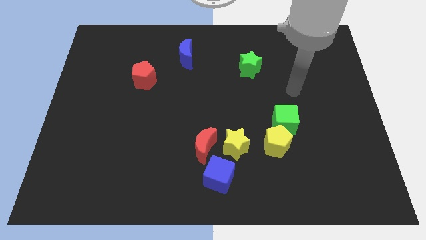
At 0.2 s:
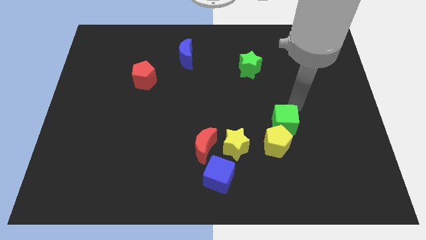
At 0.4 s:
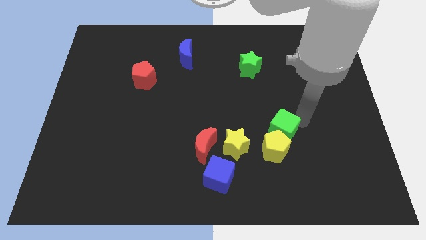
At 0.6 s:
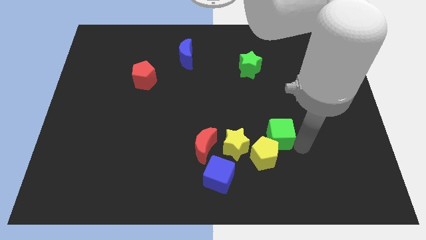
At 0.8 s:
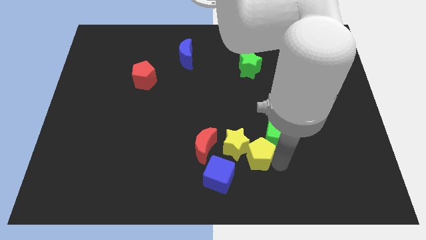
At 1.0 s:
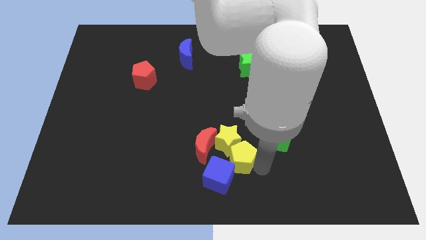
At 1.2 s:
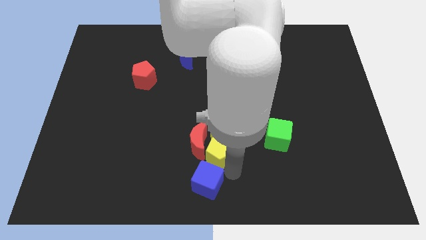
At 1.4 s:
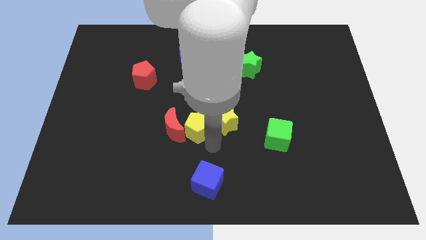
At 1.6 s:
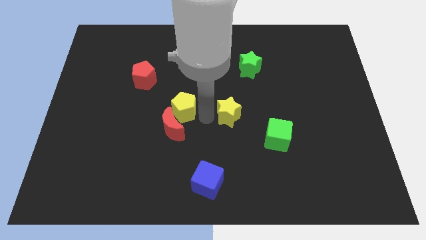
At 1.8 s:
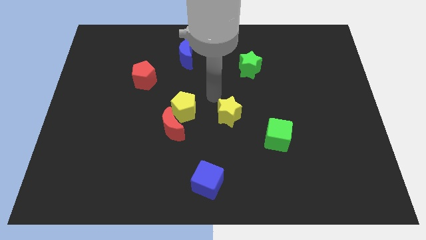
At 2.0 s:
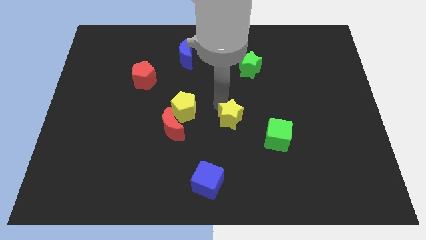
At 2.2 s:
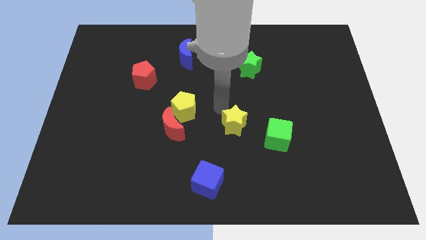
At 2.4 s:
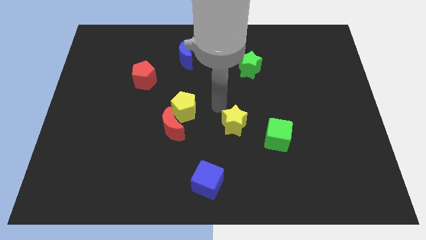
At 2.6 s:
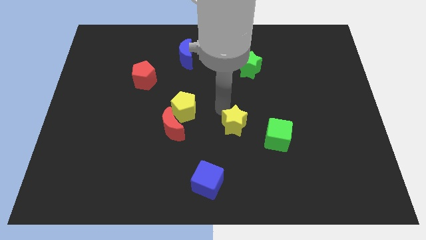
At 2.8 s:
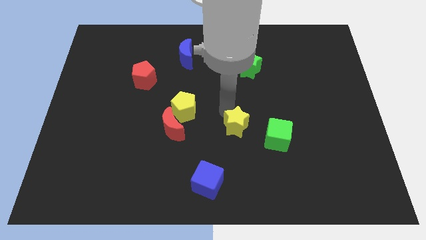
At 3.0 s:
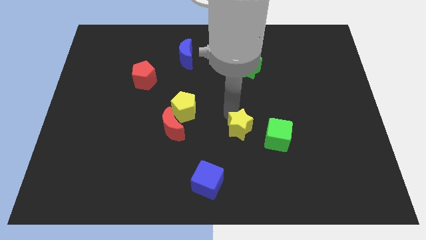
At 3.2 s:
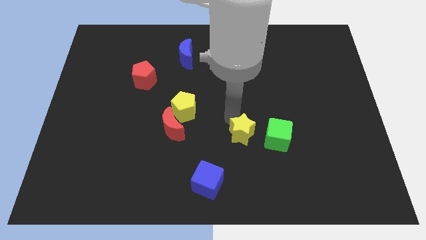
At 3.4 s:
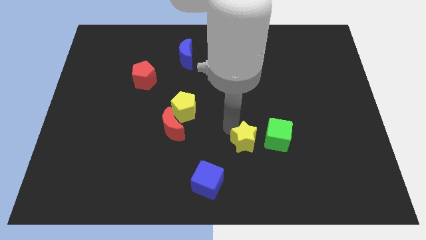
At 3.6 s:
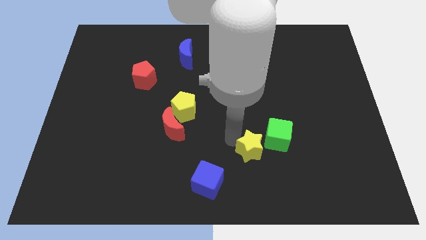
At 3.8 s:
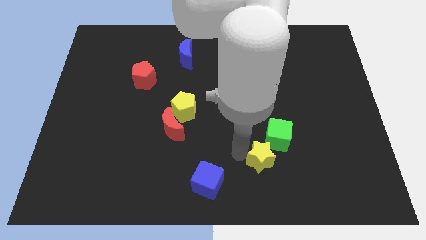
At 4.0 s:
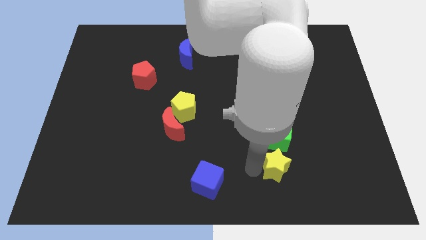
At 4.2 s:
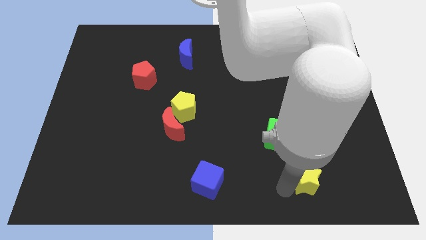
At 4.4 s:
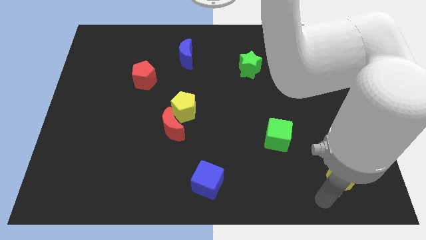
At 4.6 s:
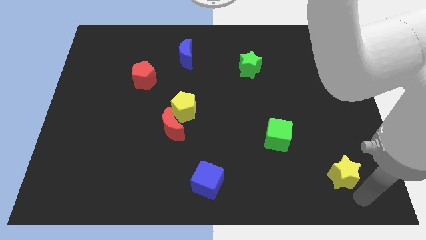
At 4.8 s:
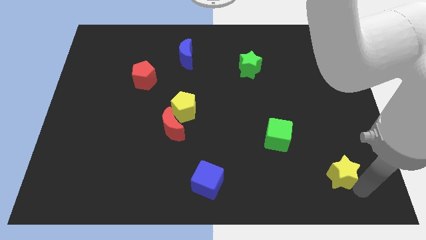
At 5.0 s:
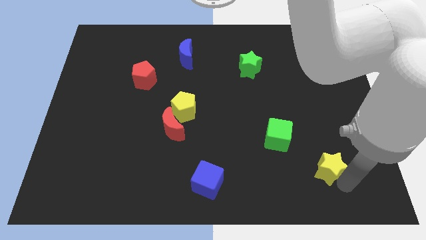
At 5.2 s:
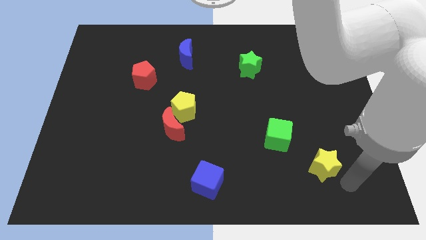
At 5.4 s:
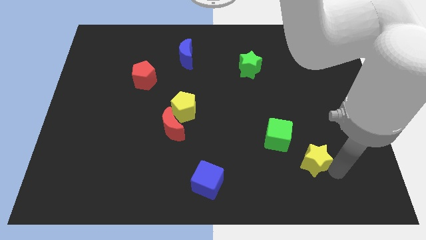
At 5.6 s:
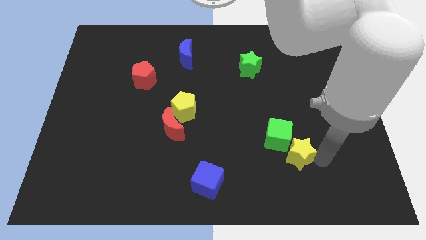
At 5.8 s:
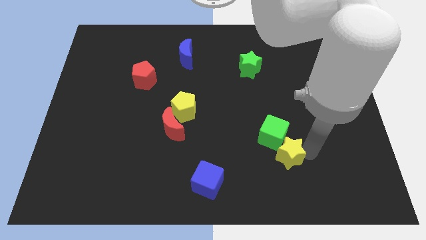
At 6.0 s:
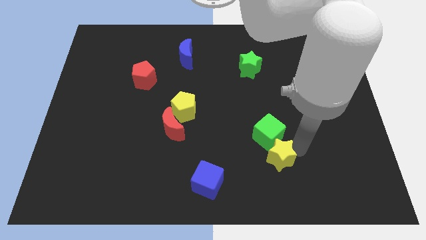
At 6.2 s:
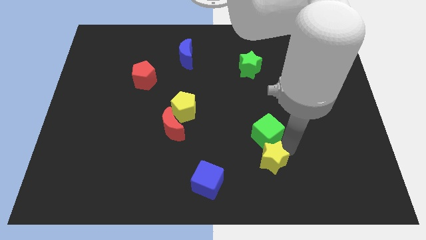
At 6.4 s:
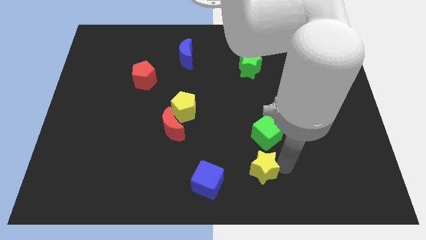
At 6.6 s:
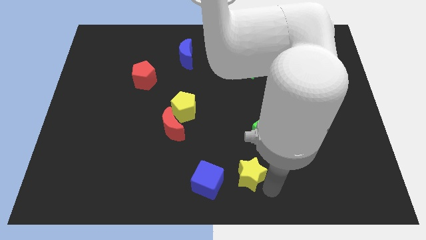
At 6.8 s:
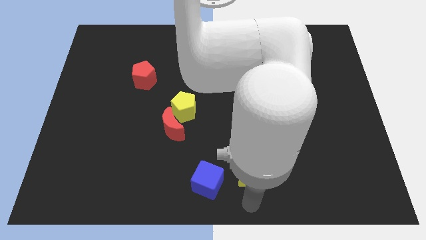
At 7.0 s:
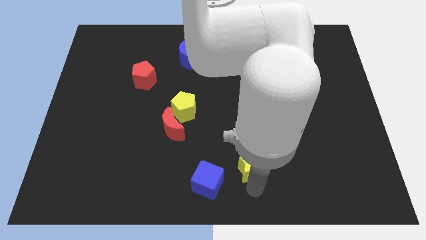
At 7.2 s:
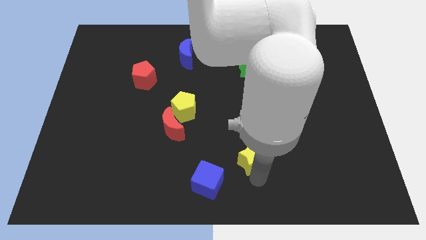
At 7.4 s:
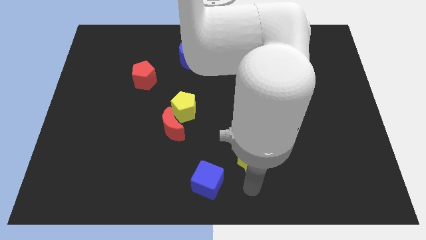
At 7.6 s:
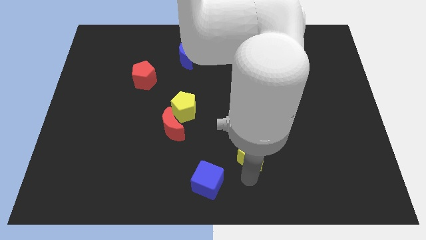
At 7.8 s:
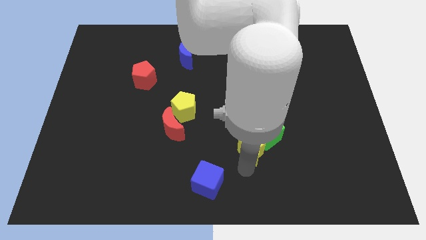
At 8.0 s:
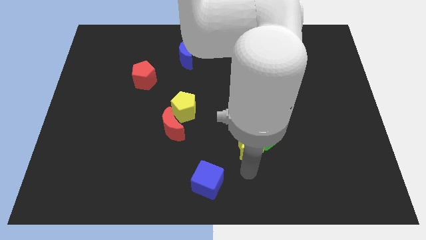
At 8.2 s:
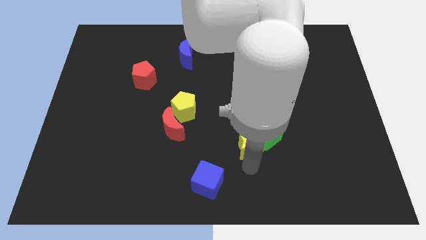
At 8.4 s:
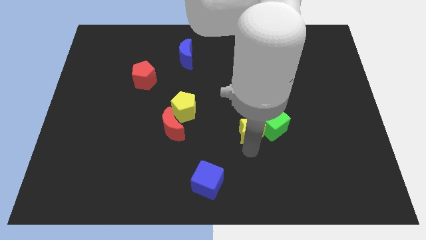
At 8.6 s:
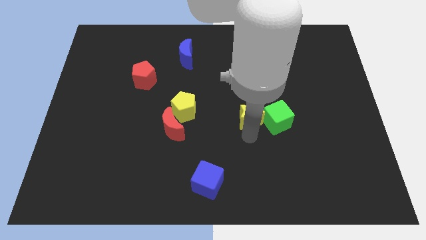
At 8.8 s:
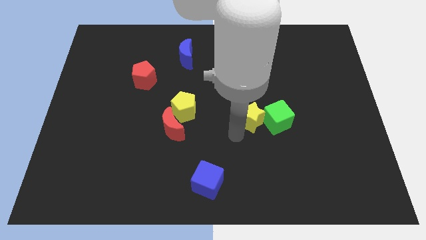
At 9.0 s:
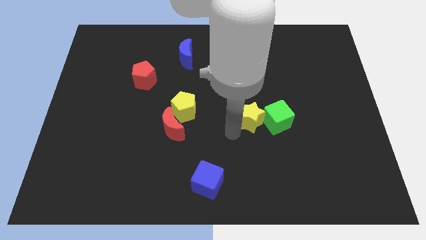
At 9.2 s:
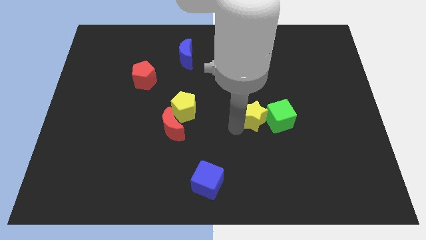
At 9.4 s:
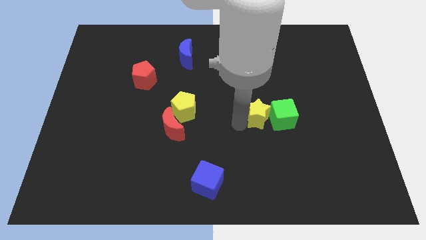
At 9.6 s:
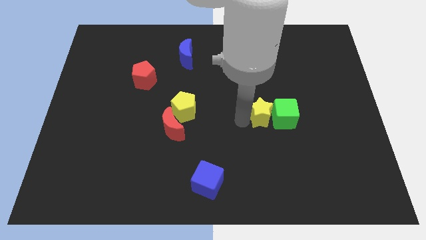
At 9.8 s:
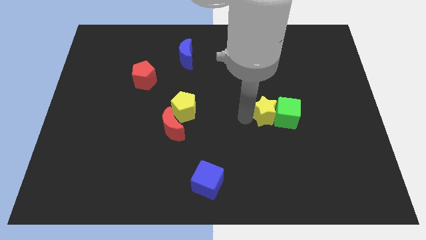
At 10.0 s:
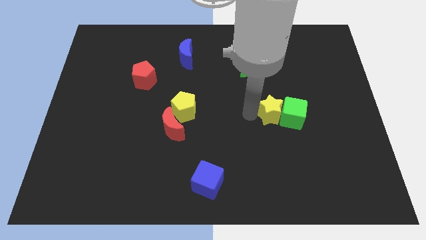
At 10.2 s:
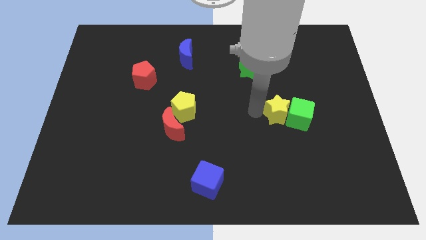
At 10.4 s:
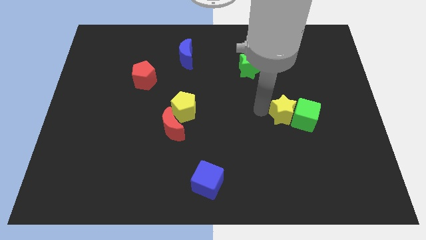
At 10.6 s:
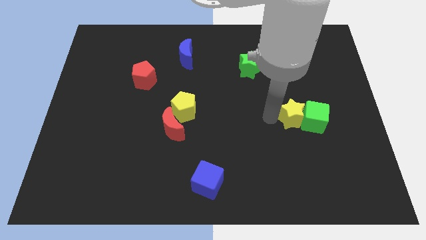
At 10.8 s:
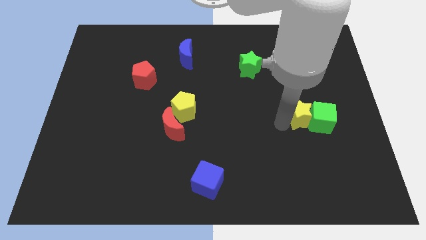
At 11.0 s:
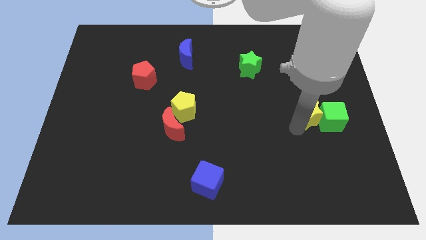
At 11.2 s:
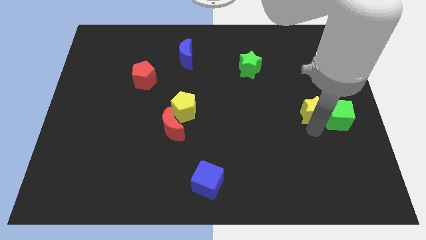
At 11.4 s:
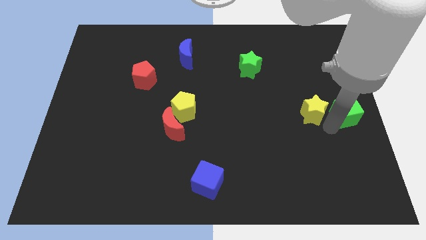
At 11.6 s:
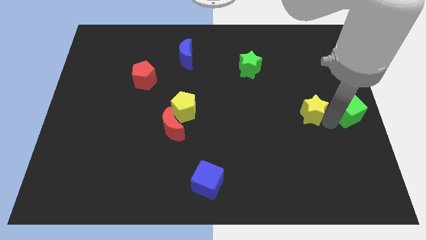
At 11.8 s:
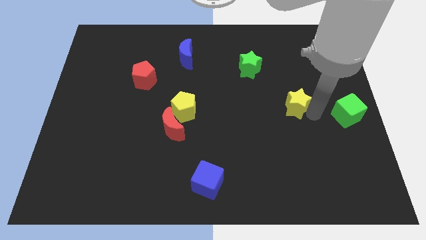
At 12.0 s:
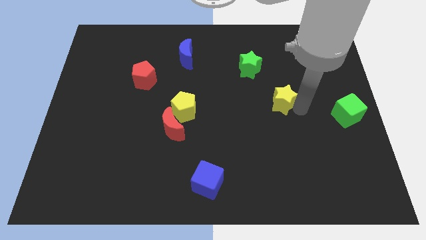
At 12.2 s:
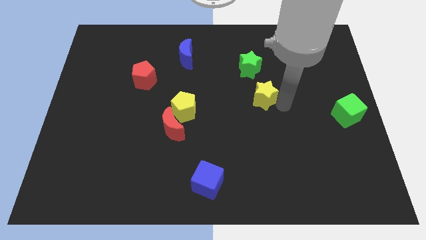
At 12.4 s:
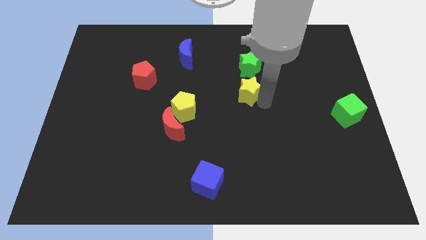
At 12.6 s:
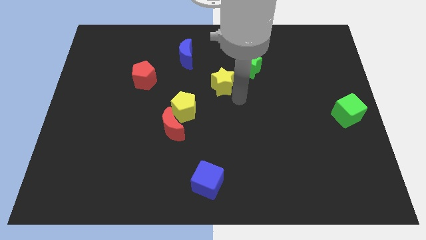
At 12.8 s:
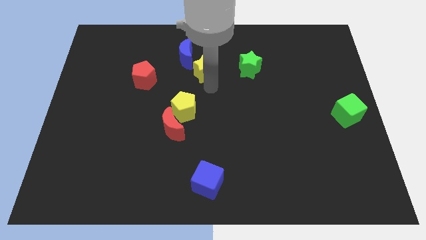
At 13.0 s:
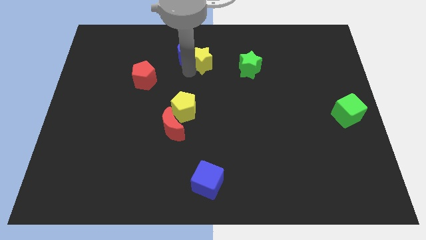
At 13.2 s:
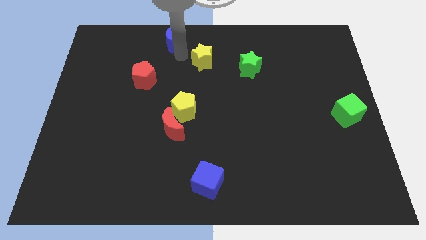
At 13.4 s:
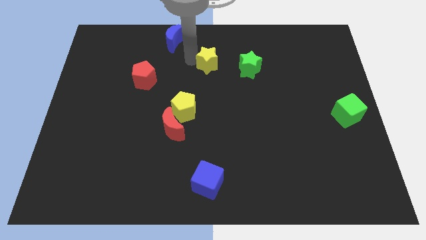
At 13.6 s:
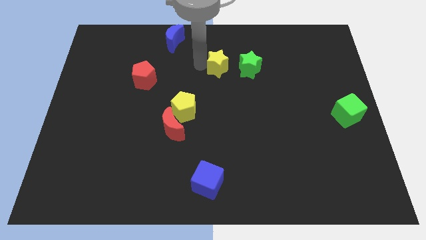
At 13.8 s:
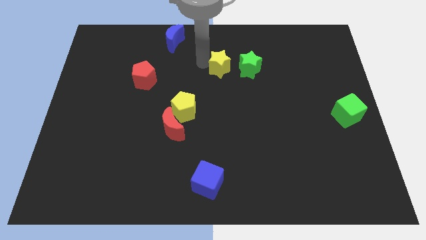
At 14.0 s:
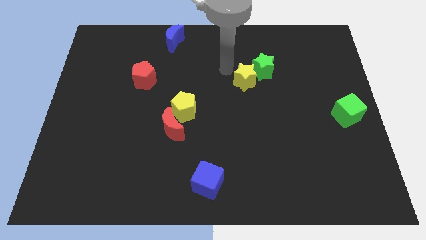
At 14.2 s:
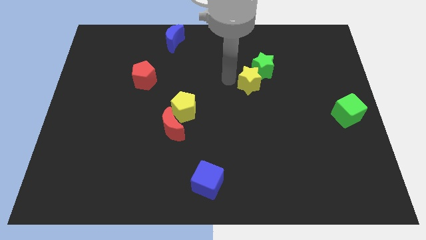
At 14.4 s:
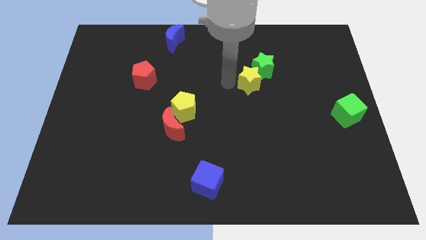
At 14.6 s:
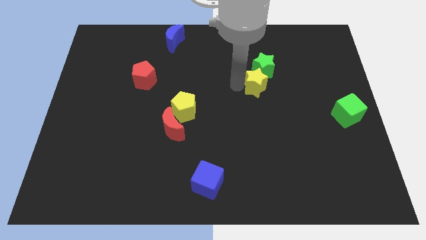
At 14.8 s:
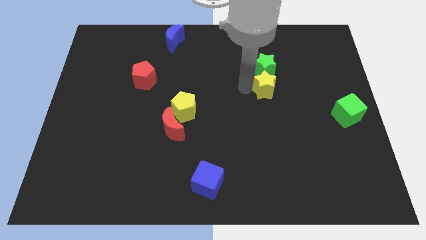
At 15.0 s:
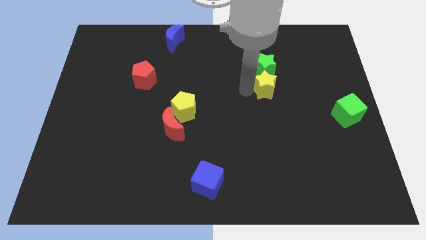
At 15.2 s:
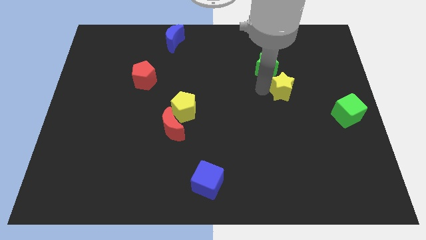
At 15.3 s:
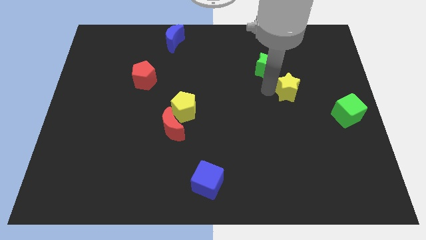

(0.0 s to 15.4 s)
move the yellow star up and then right

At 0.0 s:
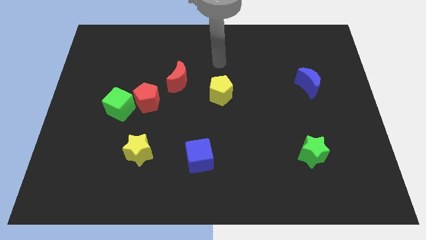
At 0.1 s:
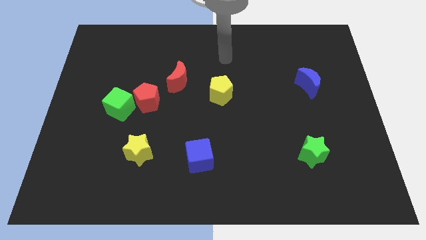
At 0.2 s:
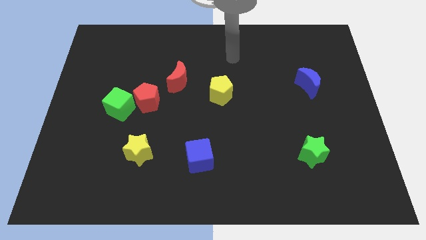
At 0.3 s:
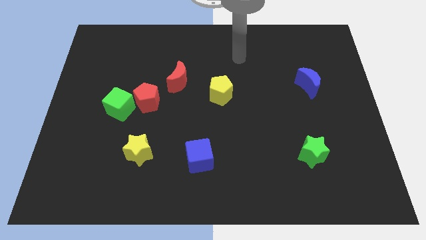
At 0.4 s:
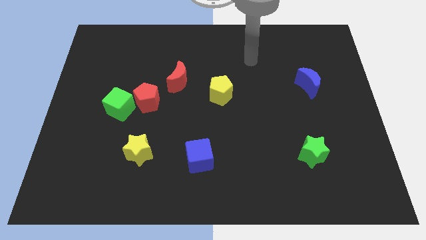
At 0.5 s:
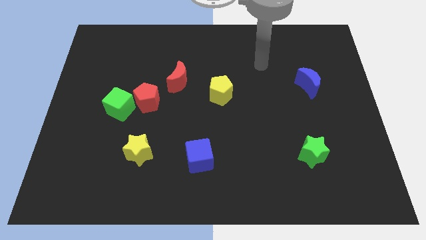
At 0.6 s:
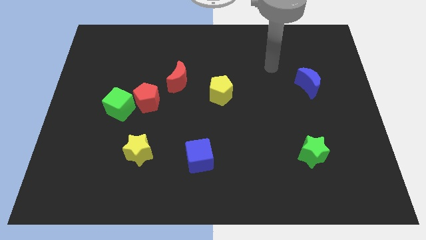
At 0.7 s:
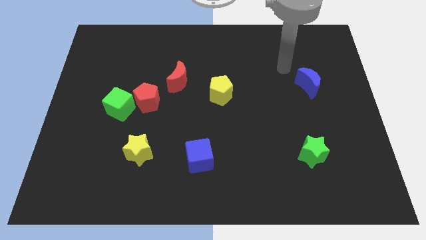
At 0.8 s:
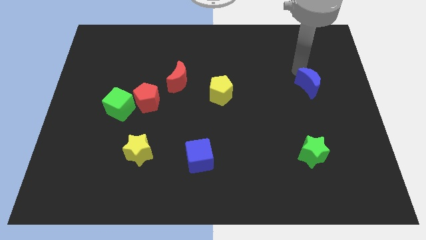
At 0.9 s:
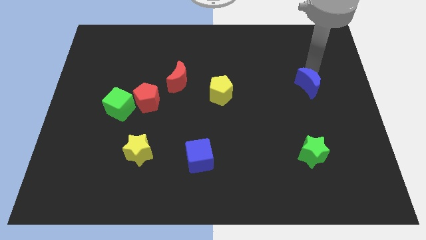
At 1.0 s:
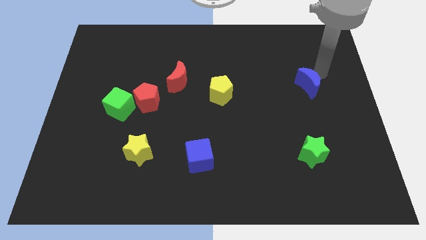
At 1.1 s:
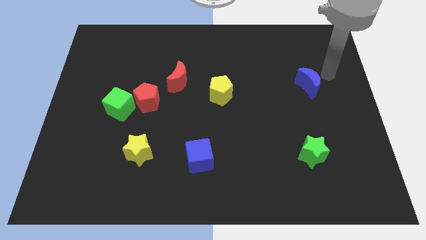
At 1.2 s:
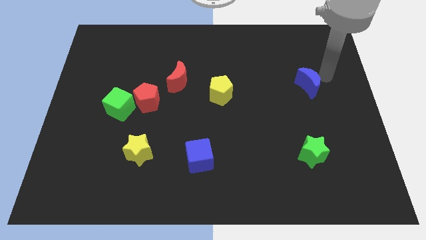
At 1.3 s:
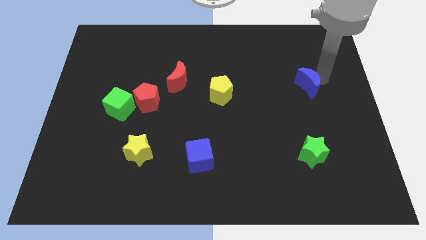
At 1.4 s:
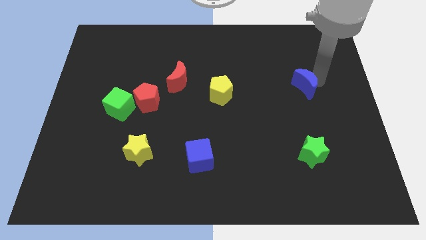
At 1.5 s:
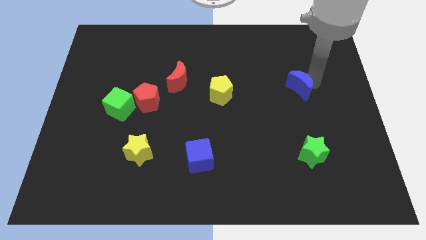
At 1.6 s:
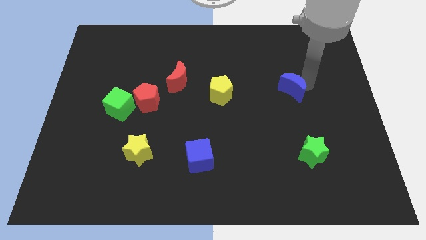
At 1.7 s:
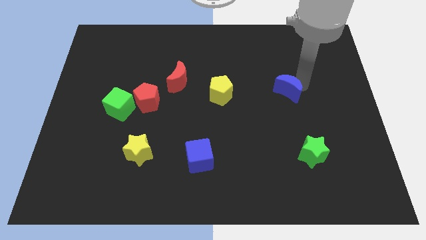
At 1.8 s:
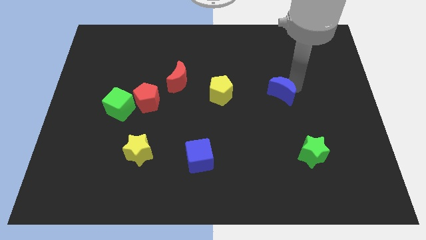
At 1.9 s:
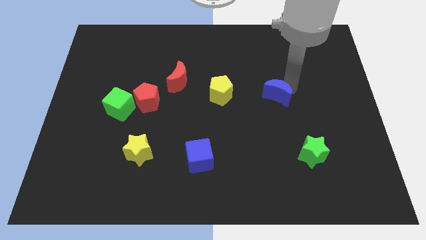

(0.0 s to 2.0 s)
push the blue moon downwards and to the left a bit
